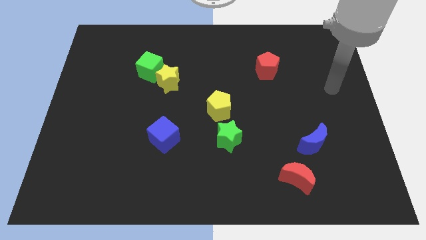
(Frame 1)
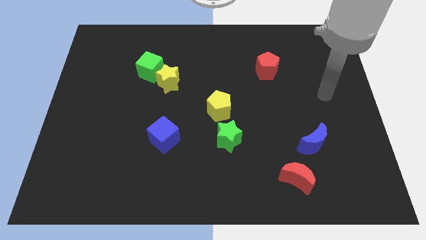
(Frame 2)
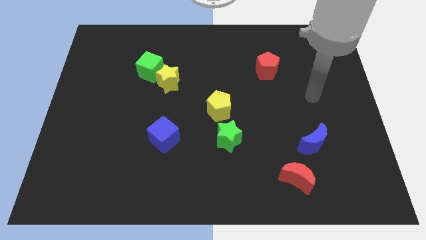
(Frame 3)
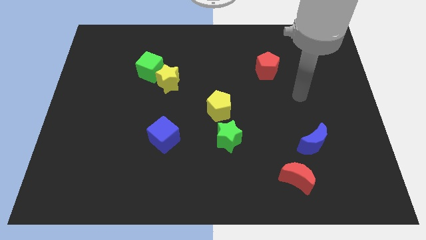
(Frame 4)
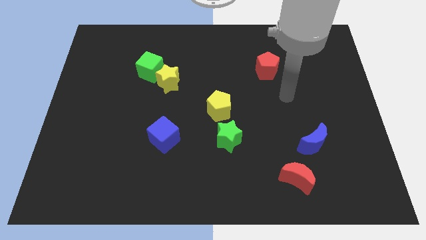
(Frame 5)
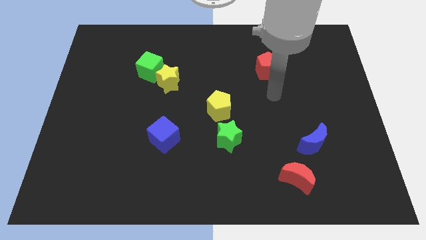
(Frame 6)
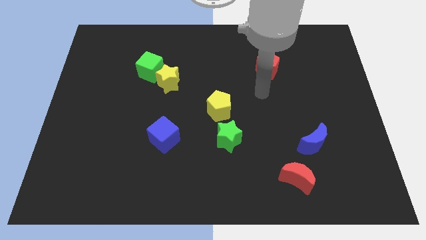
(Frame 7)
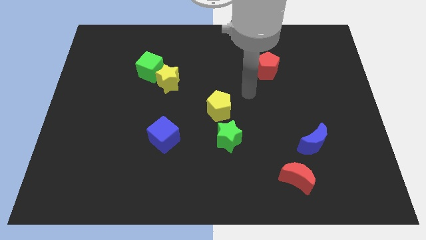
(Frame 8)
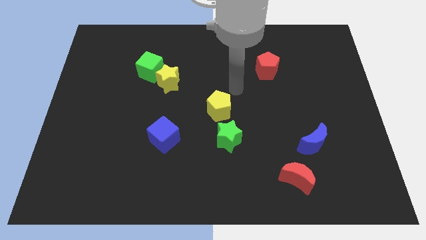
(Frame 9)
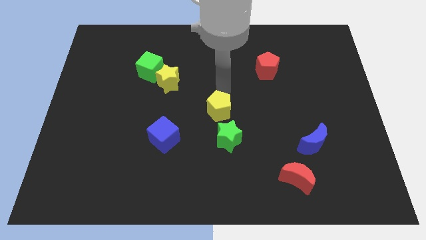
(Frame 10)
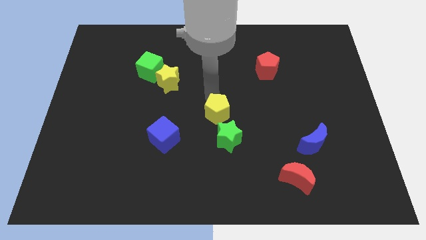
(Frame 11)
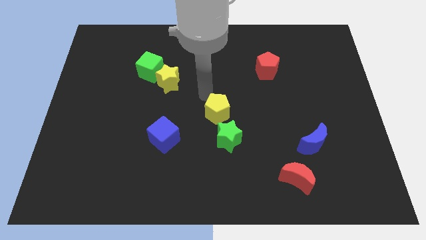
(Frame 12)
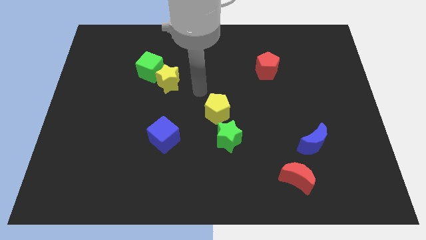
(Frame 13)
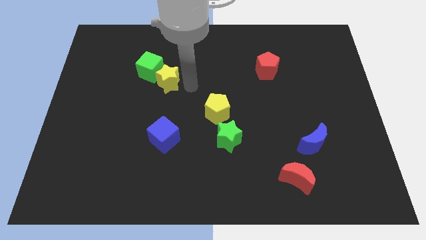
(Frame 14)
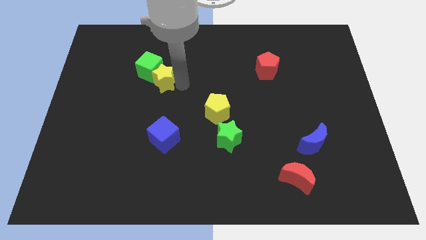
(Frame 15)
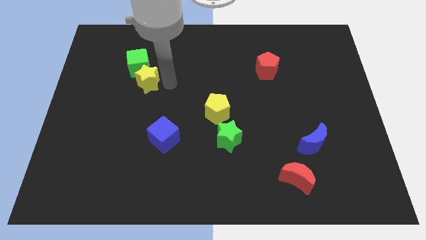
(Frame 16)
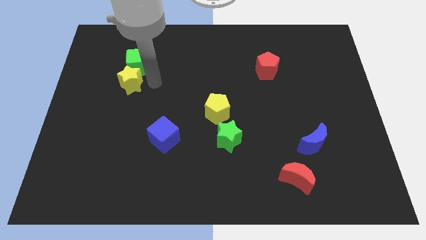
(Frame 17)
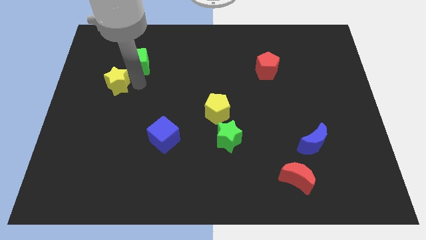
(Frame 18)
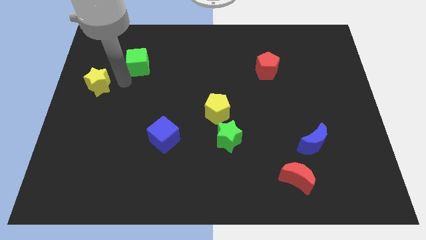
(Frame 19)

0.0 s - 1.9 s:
move the green cube away from the yellow star

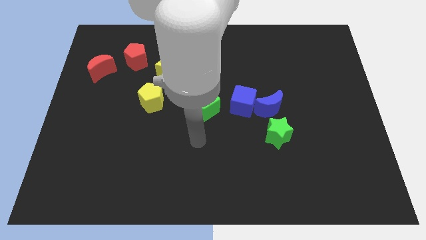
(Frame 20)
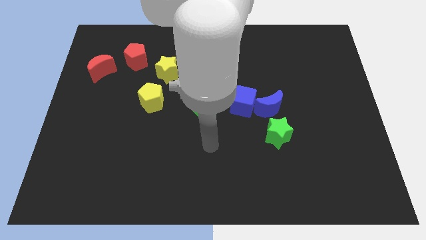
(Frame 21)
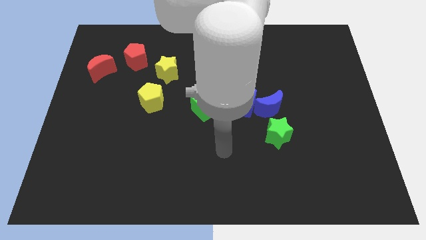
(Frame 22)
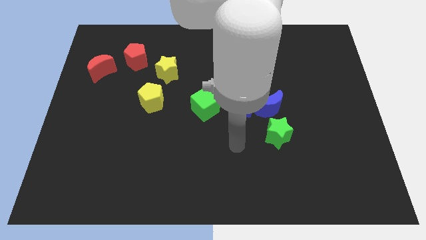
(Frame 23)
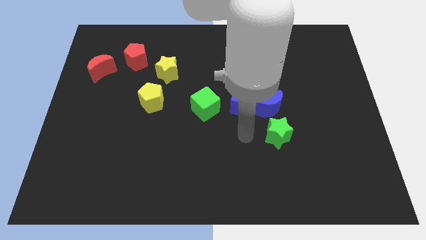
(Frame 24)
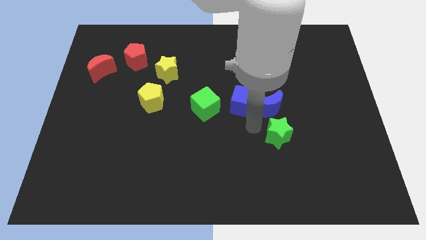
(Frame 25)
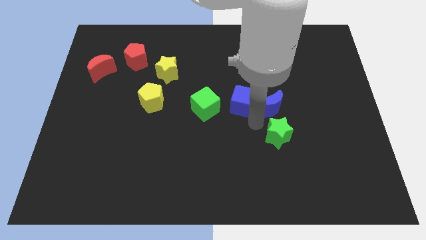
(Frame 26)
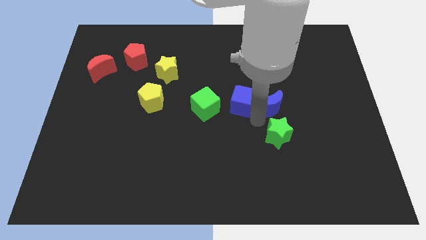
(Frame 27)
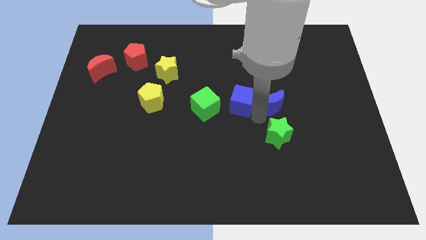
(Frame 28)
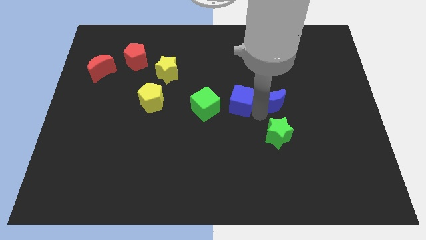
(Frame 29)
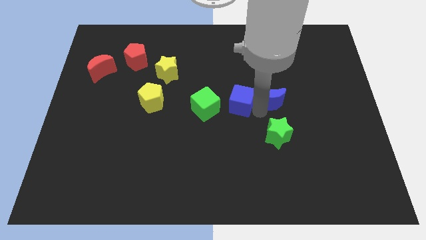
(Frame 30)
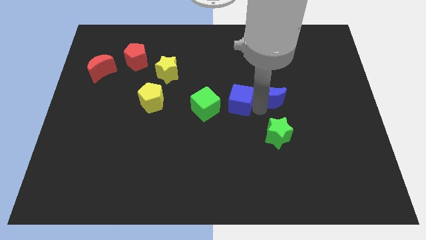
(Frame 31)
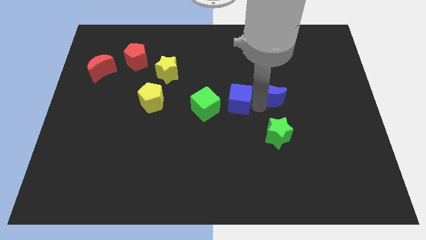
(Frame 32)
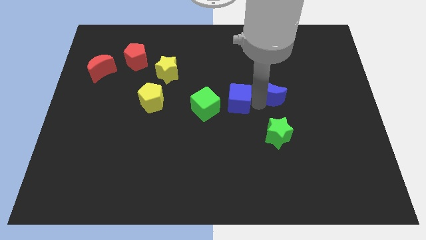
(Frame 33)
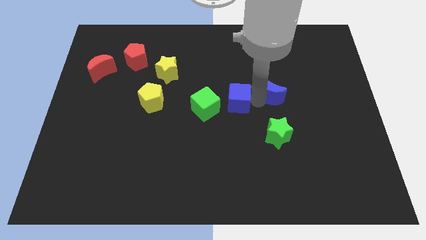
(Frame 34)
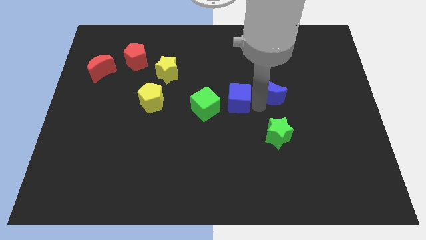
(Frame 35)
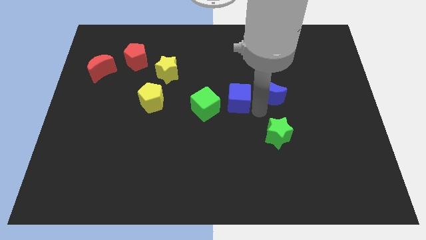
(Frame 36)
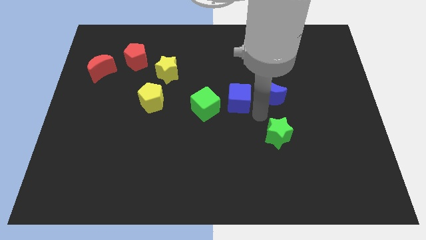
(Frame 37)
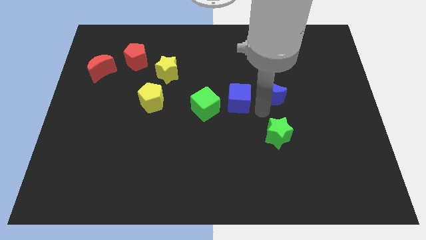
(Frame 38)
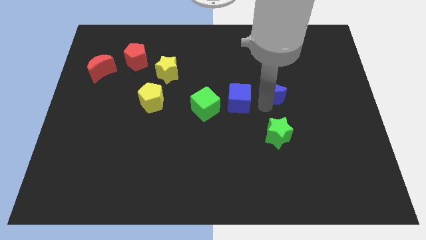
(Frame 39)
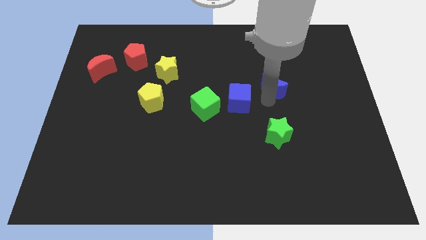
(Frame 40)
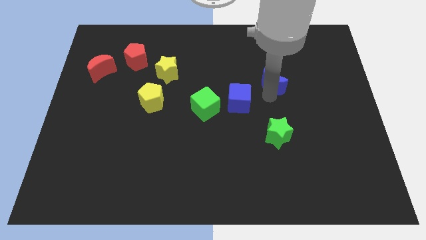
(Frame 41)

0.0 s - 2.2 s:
separate the blue moon from the blue cube and green star

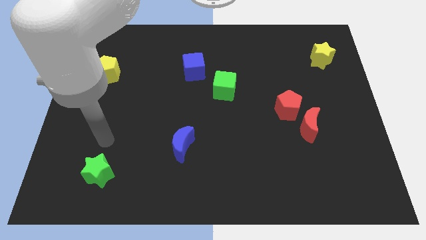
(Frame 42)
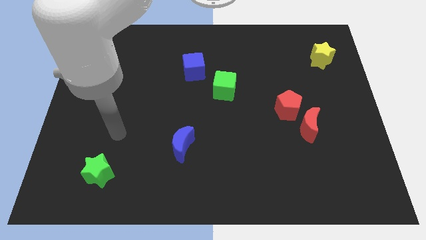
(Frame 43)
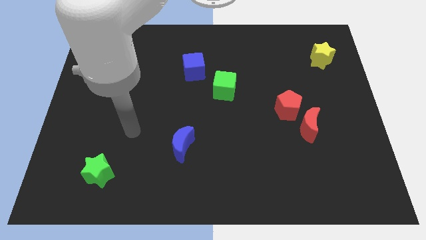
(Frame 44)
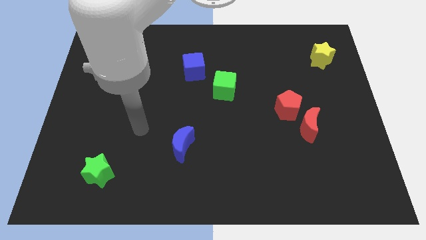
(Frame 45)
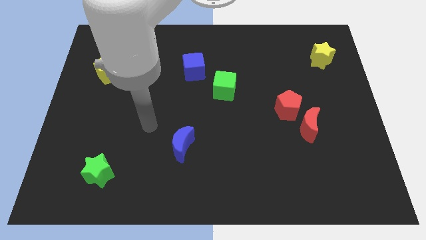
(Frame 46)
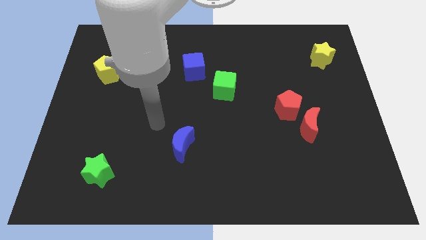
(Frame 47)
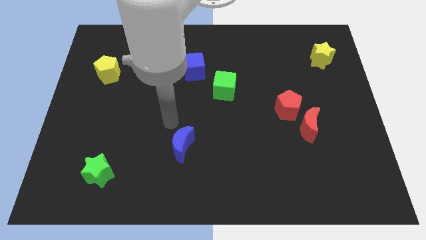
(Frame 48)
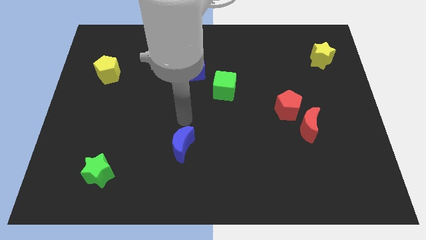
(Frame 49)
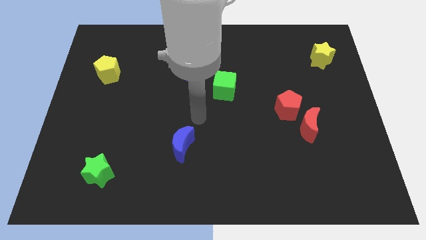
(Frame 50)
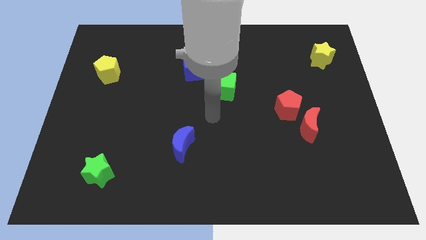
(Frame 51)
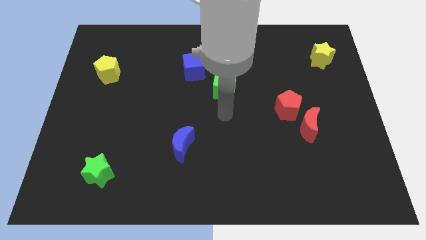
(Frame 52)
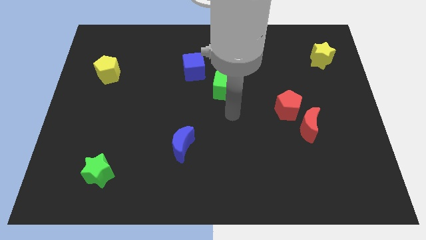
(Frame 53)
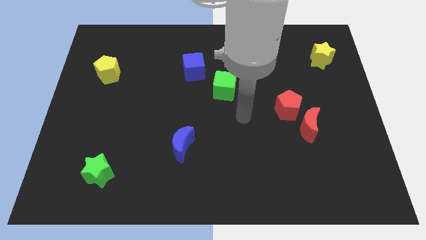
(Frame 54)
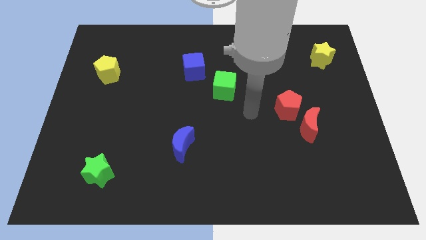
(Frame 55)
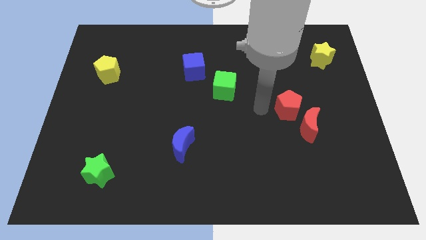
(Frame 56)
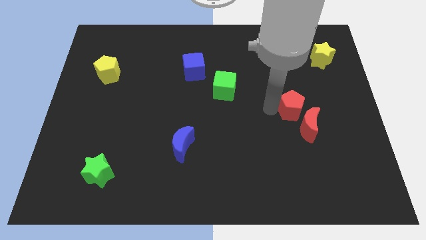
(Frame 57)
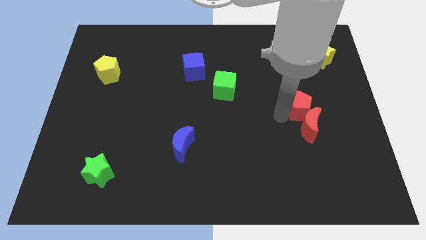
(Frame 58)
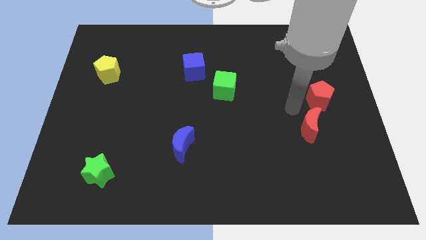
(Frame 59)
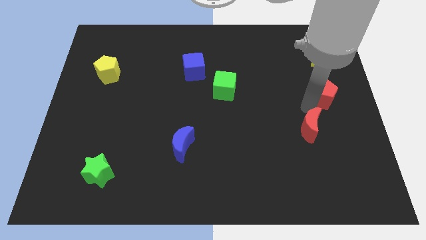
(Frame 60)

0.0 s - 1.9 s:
separate the red moon from the red pentagon

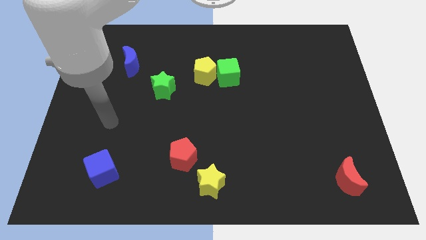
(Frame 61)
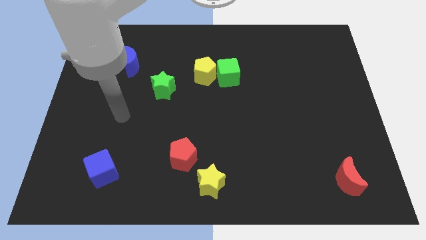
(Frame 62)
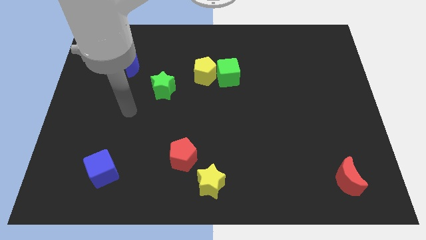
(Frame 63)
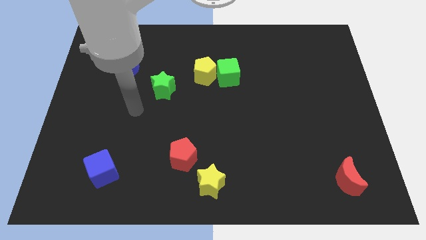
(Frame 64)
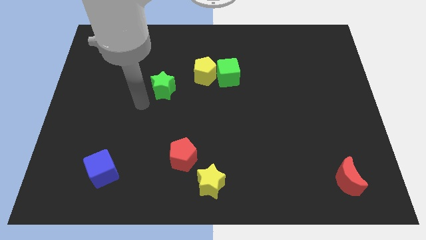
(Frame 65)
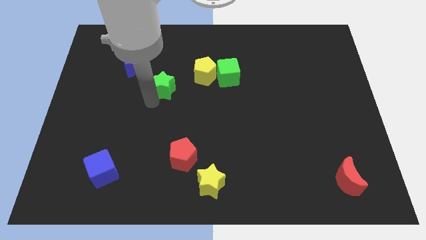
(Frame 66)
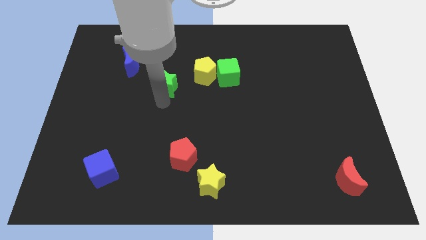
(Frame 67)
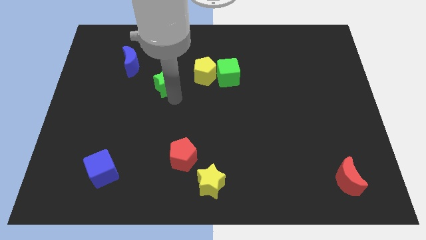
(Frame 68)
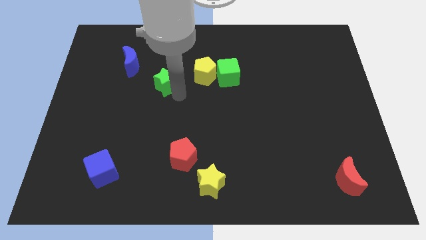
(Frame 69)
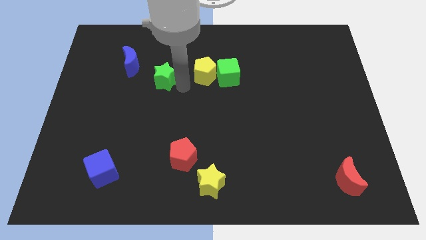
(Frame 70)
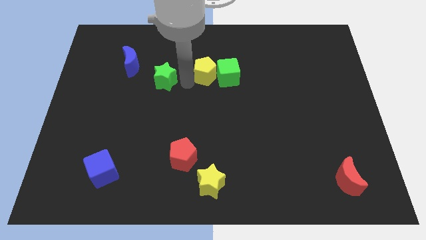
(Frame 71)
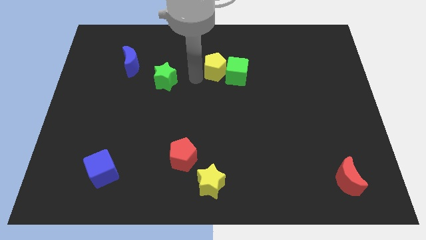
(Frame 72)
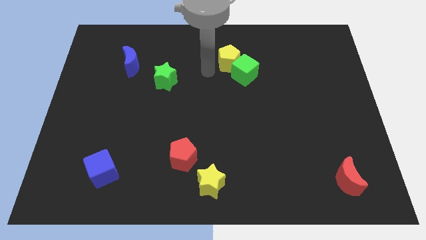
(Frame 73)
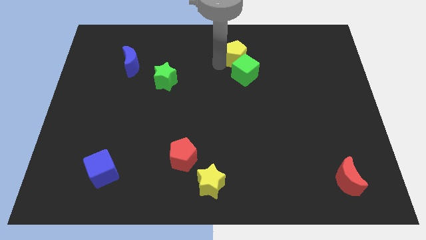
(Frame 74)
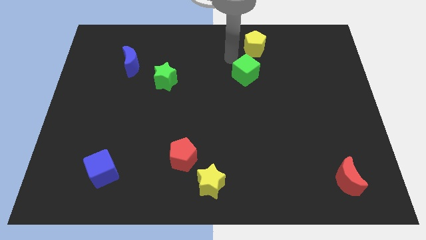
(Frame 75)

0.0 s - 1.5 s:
move the green cube away from the yellow pentagon

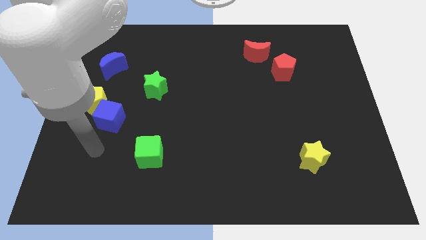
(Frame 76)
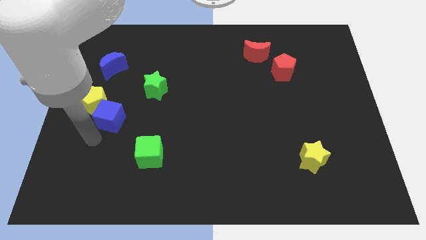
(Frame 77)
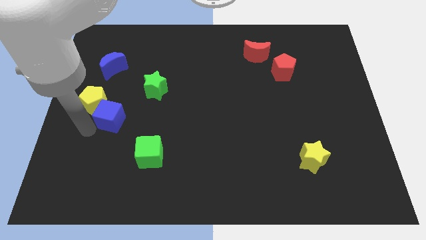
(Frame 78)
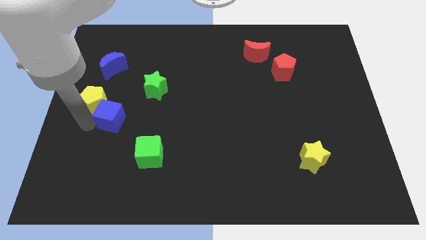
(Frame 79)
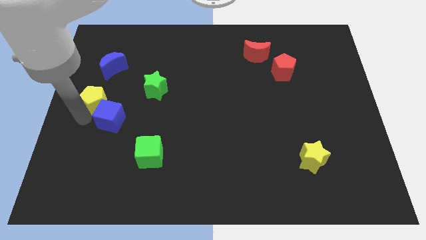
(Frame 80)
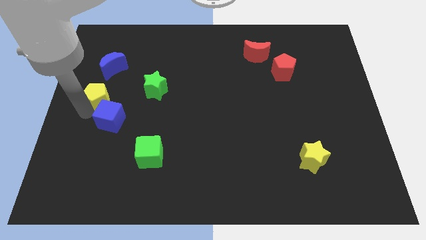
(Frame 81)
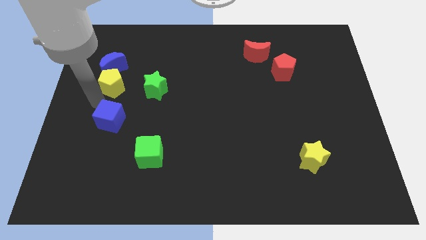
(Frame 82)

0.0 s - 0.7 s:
separate the blue cube from the yellow pentagon

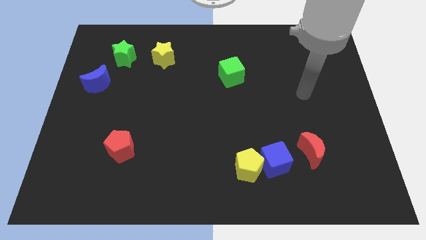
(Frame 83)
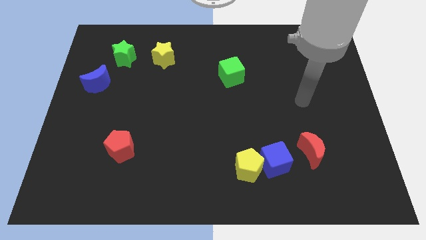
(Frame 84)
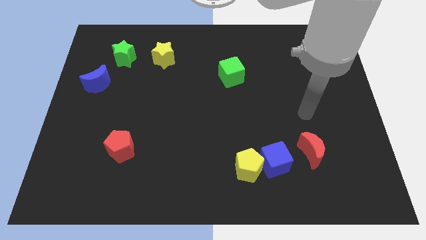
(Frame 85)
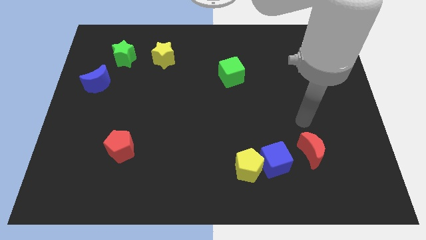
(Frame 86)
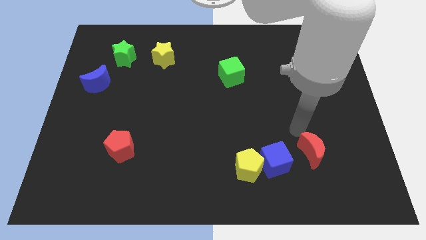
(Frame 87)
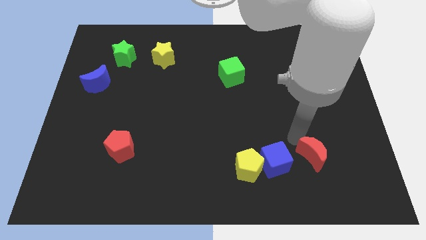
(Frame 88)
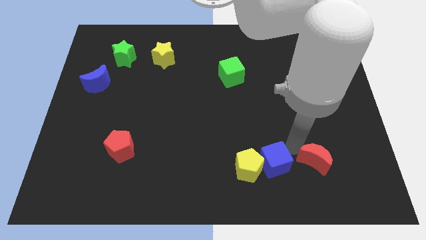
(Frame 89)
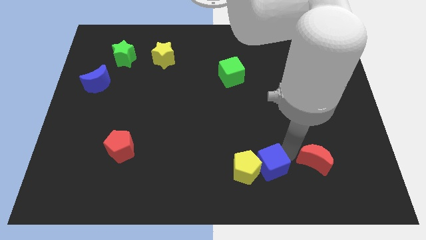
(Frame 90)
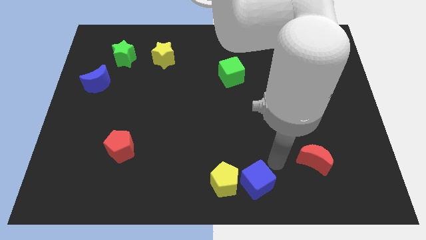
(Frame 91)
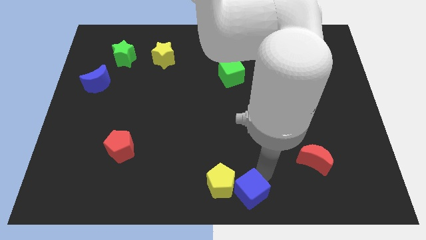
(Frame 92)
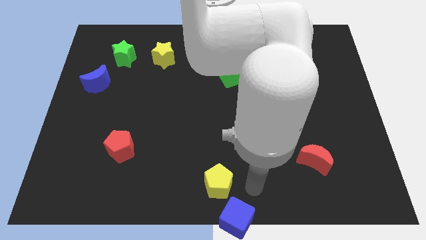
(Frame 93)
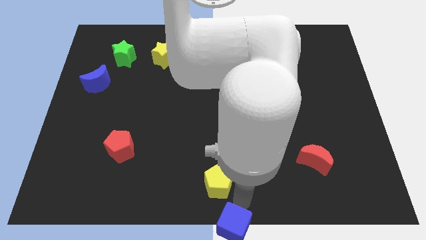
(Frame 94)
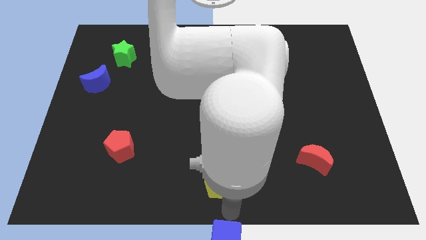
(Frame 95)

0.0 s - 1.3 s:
move the yellow pentagon away from the blue cube
